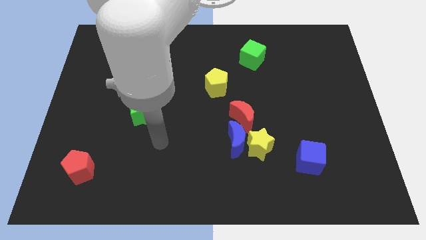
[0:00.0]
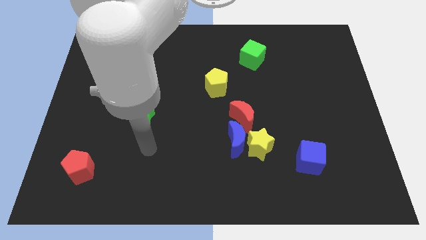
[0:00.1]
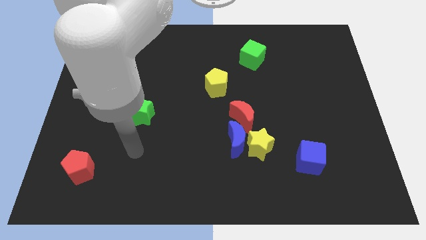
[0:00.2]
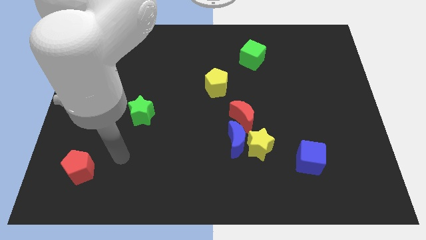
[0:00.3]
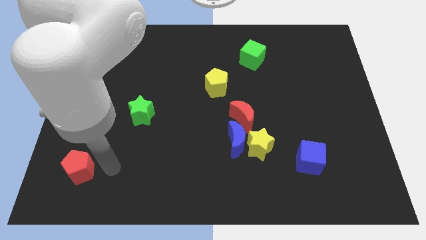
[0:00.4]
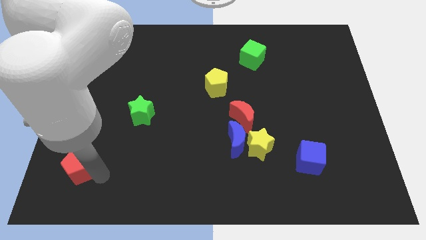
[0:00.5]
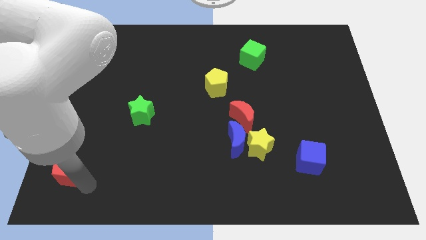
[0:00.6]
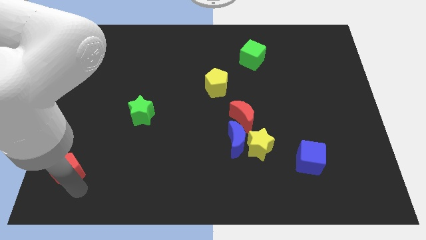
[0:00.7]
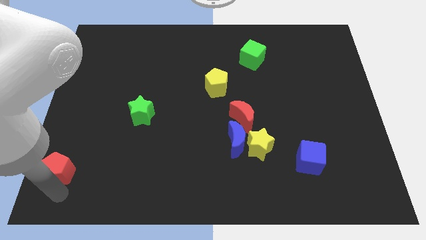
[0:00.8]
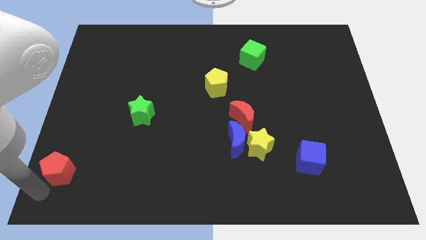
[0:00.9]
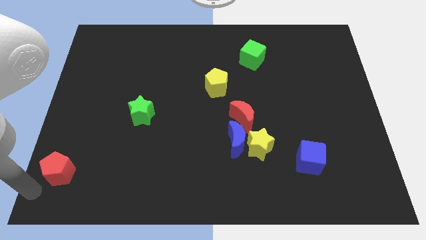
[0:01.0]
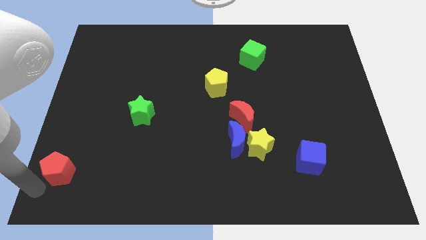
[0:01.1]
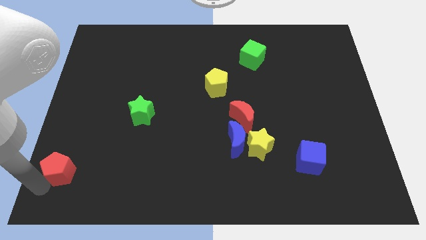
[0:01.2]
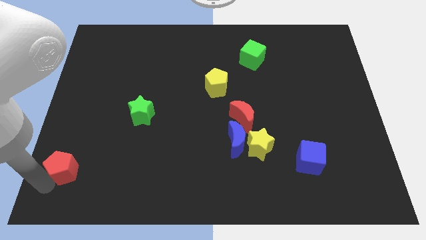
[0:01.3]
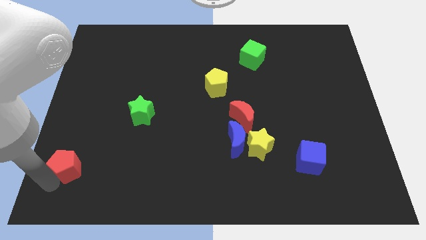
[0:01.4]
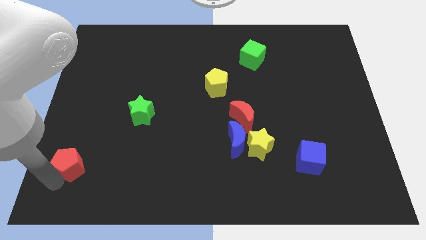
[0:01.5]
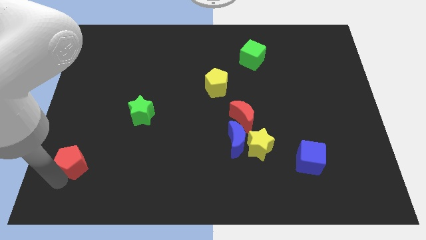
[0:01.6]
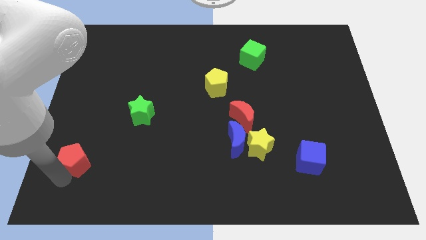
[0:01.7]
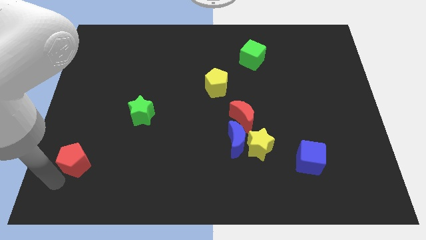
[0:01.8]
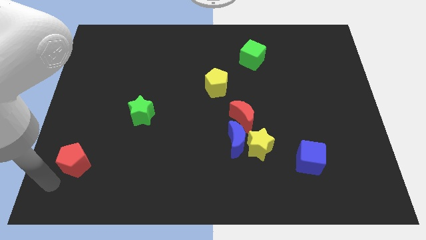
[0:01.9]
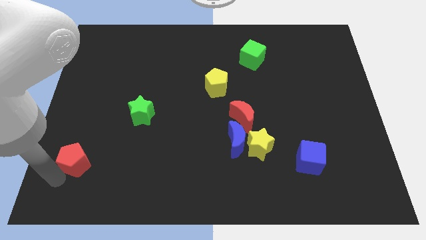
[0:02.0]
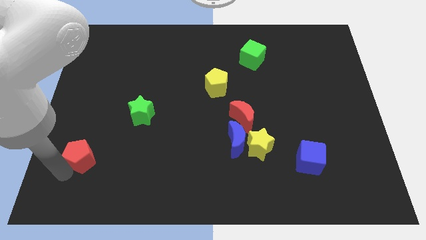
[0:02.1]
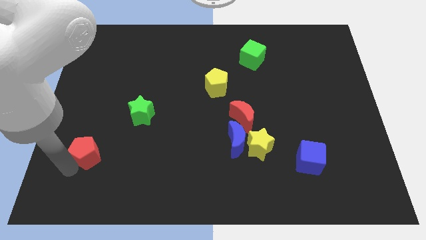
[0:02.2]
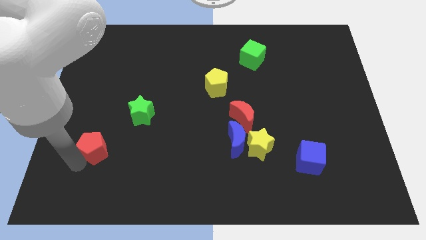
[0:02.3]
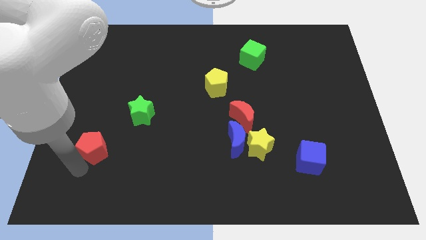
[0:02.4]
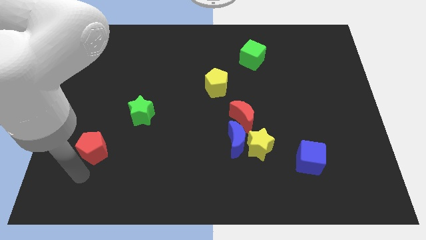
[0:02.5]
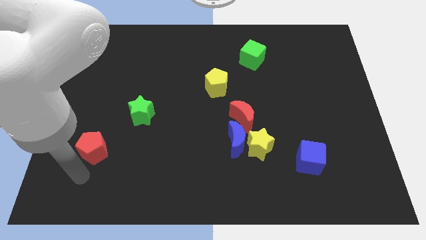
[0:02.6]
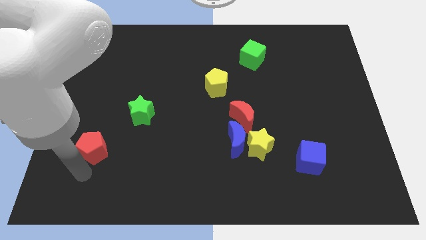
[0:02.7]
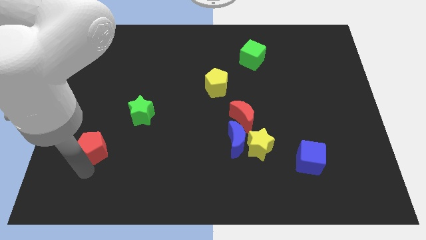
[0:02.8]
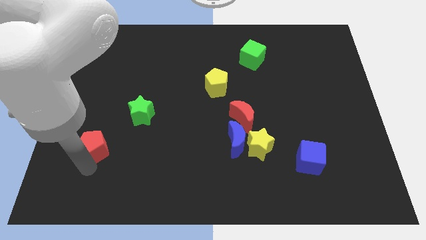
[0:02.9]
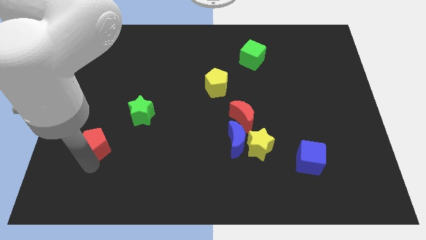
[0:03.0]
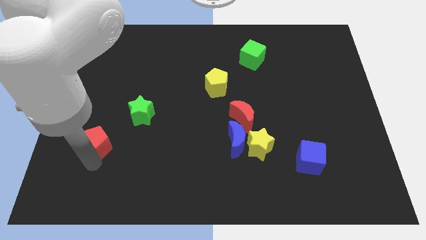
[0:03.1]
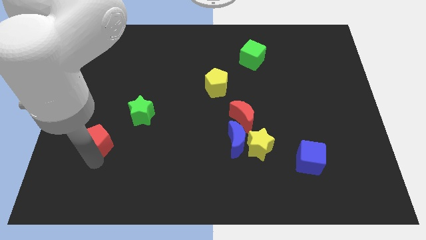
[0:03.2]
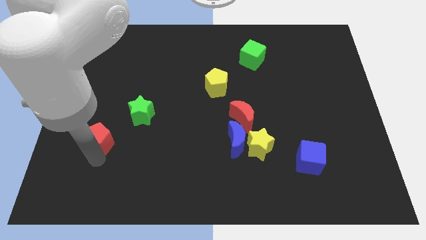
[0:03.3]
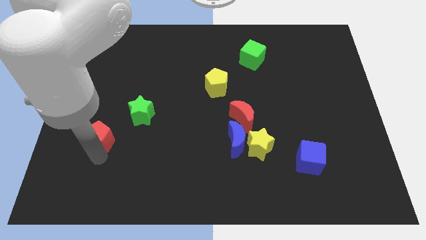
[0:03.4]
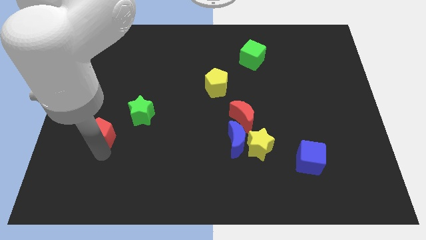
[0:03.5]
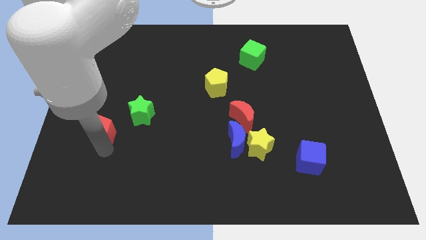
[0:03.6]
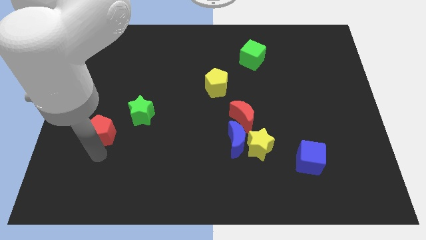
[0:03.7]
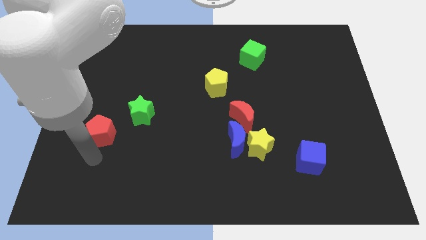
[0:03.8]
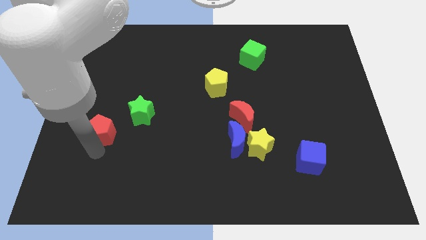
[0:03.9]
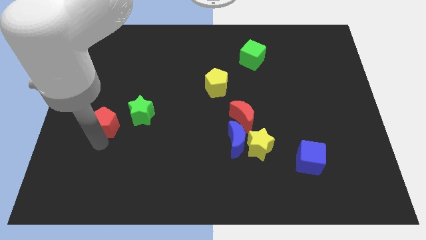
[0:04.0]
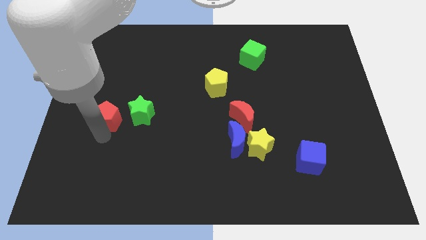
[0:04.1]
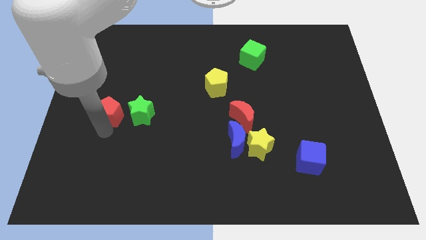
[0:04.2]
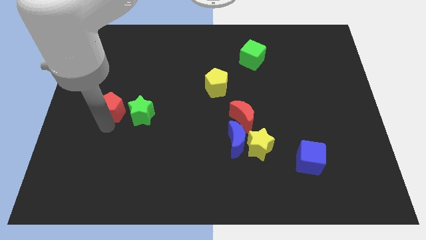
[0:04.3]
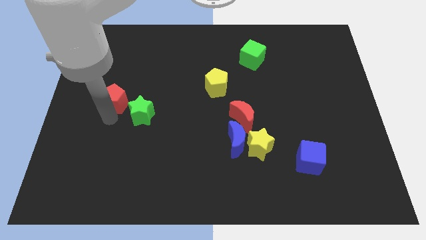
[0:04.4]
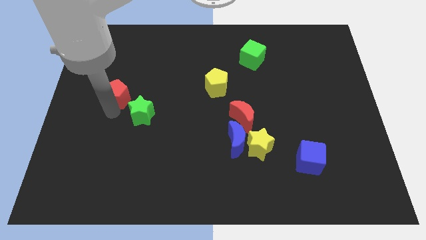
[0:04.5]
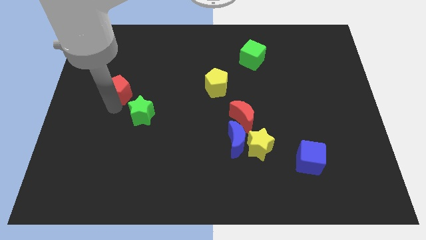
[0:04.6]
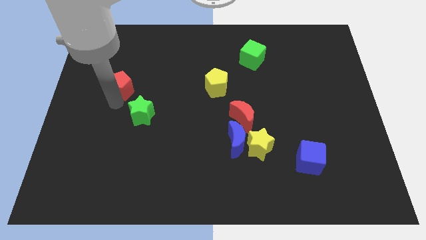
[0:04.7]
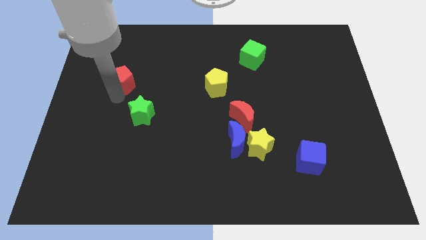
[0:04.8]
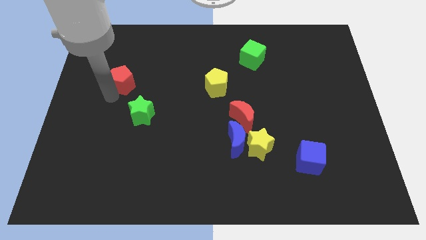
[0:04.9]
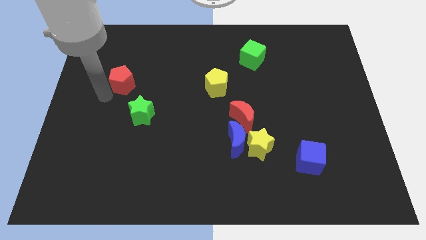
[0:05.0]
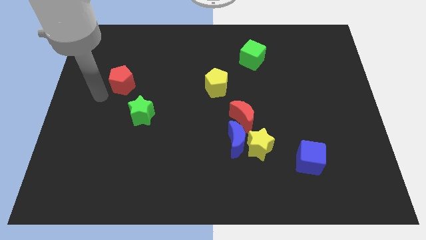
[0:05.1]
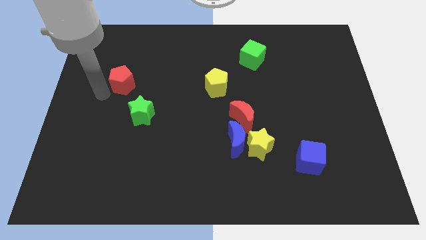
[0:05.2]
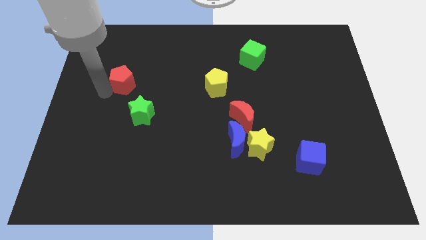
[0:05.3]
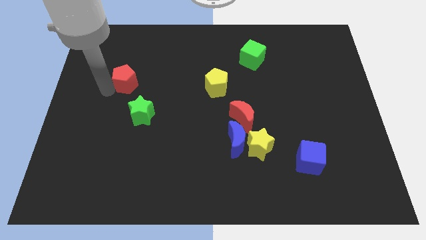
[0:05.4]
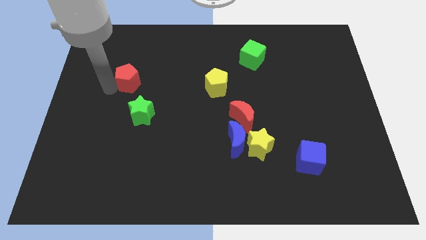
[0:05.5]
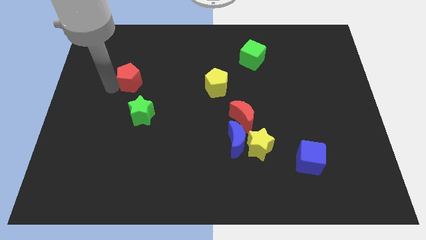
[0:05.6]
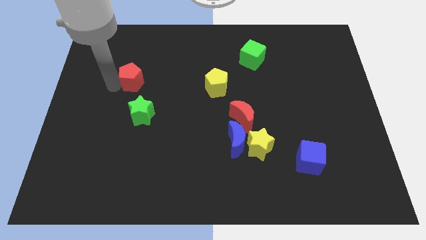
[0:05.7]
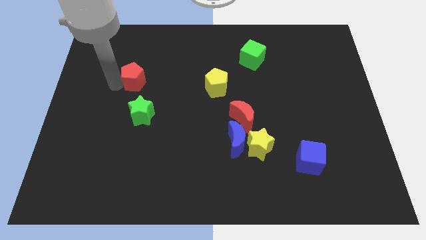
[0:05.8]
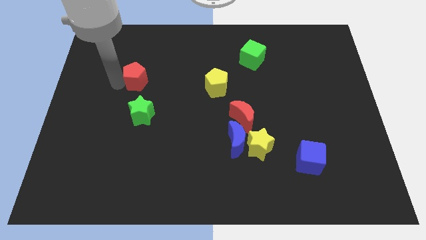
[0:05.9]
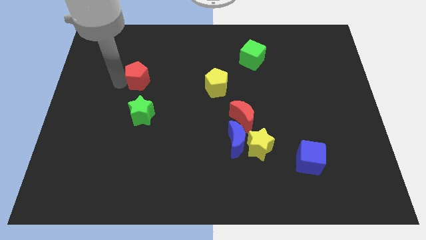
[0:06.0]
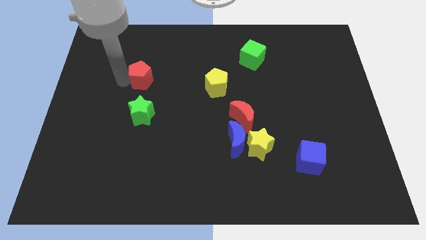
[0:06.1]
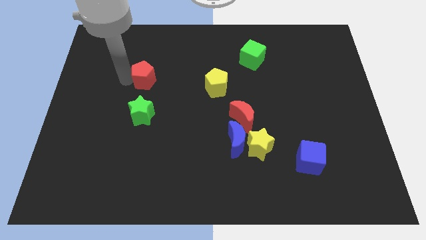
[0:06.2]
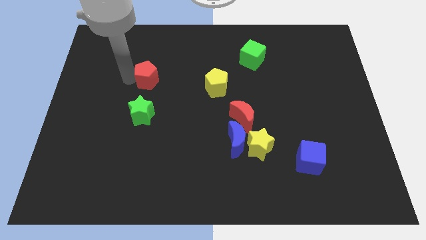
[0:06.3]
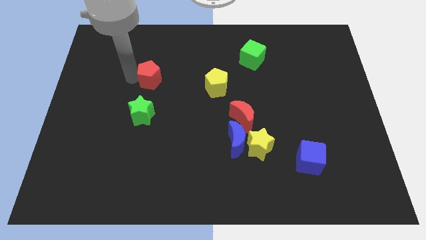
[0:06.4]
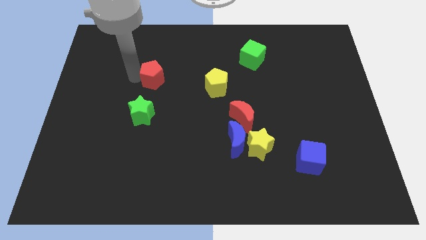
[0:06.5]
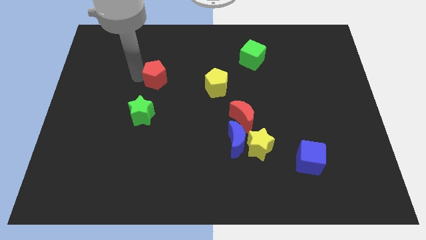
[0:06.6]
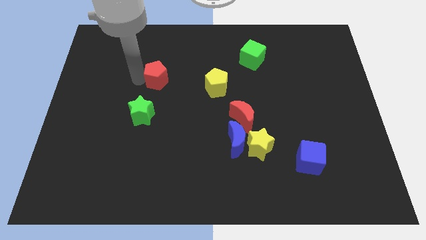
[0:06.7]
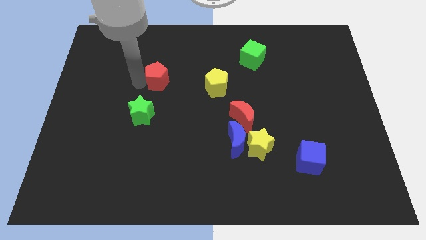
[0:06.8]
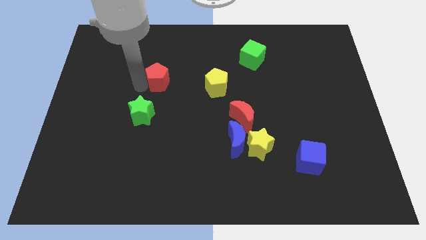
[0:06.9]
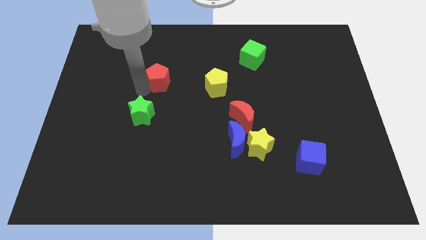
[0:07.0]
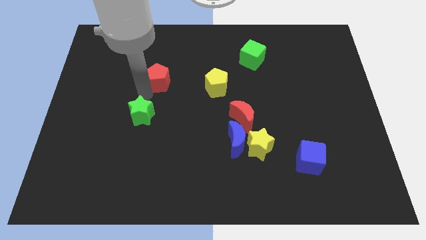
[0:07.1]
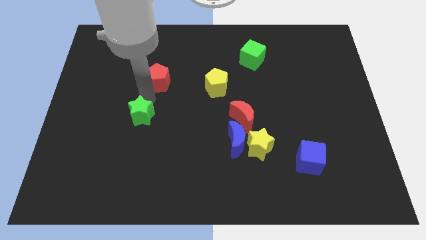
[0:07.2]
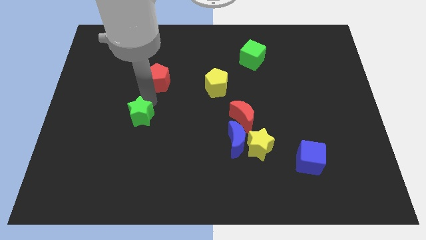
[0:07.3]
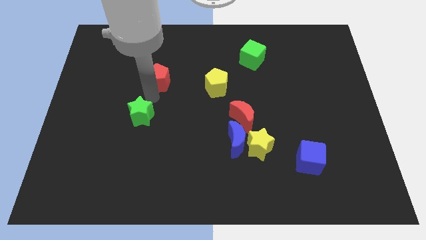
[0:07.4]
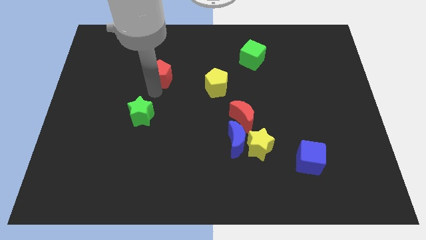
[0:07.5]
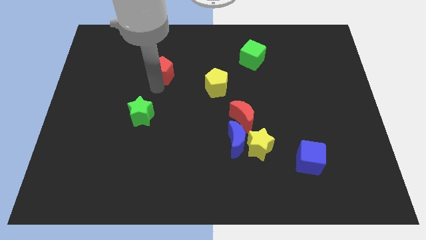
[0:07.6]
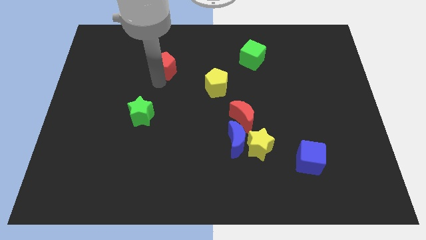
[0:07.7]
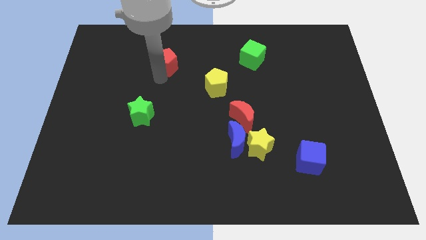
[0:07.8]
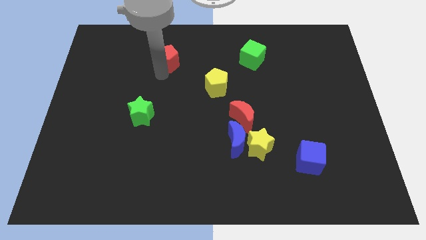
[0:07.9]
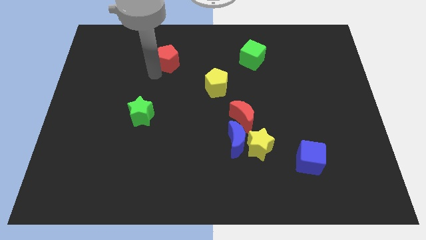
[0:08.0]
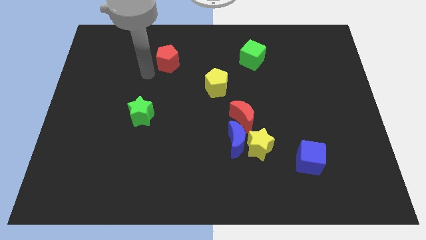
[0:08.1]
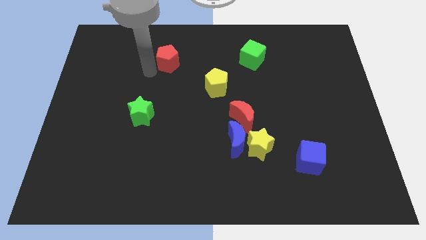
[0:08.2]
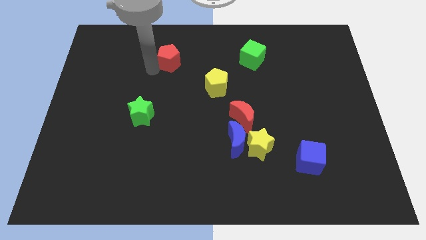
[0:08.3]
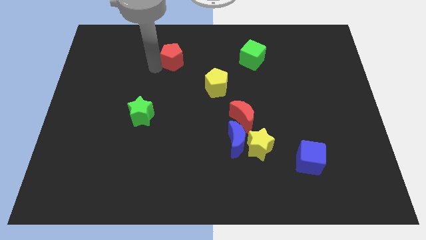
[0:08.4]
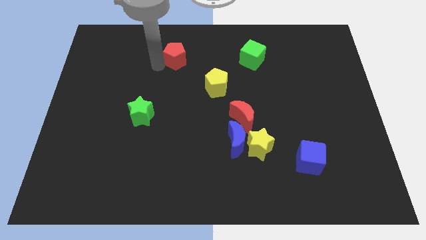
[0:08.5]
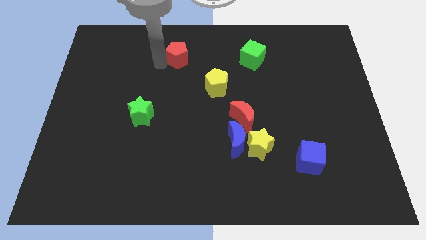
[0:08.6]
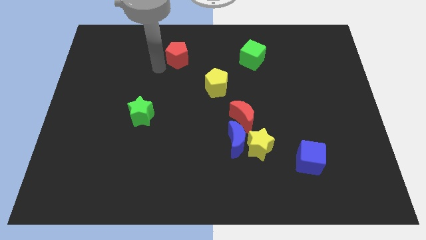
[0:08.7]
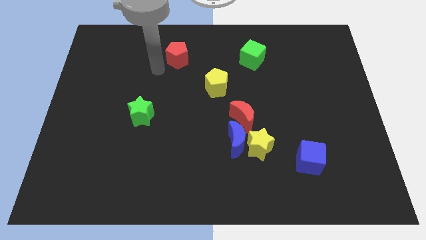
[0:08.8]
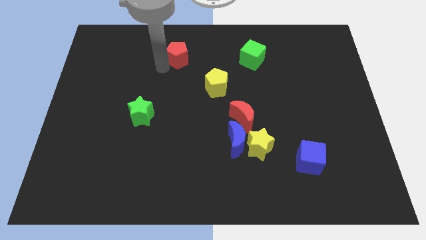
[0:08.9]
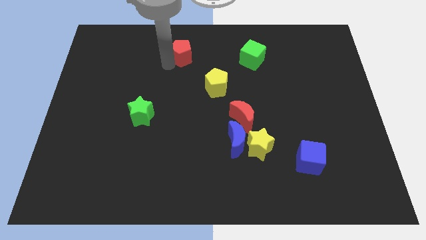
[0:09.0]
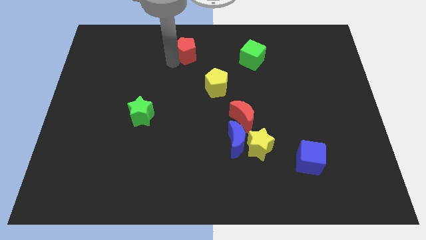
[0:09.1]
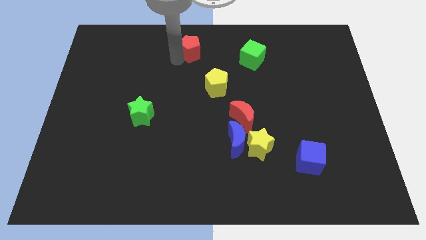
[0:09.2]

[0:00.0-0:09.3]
move the red pentagon to the towards your base
